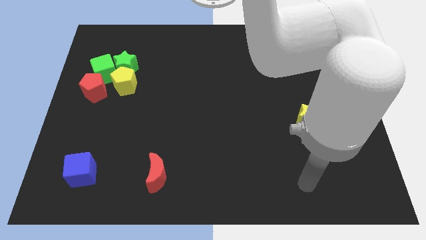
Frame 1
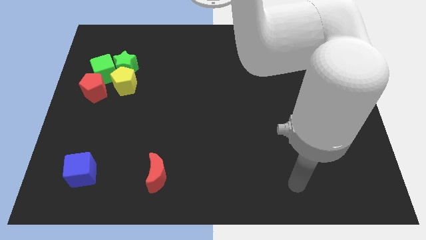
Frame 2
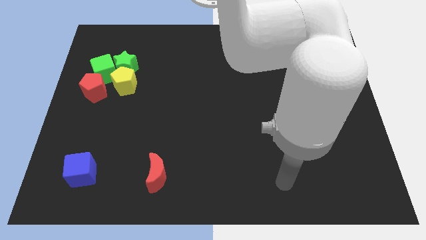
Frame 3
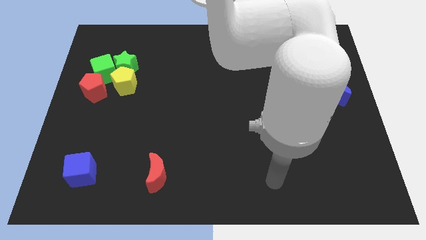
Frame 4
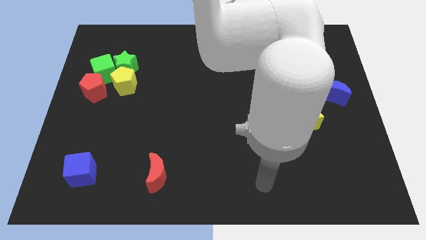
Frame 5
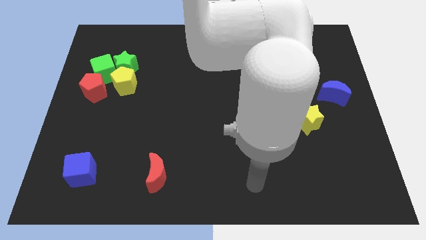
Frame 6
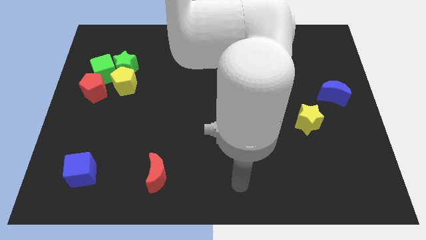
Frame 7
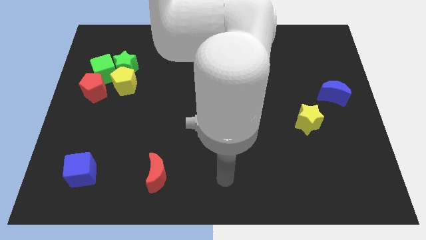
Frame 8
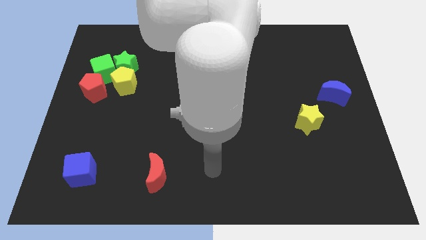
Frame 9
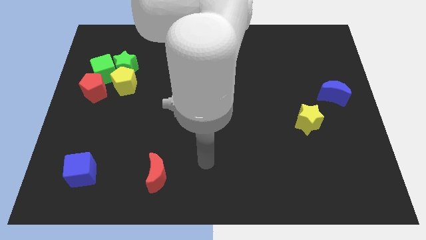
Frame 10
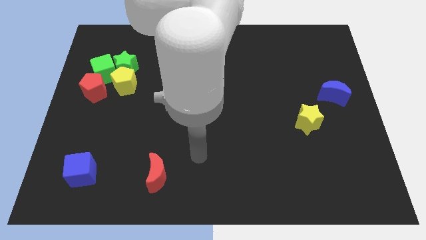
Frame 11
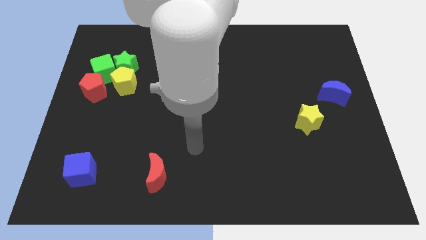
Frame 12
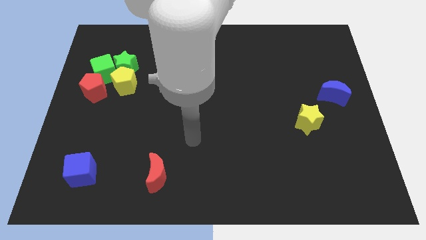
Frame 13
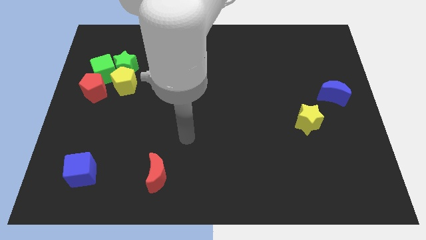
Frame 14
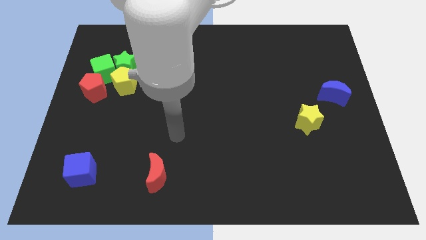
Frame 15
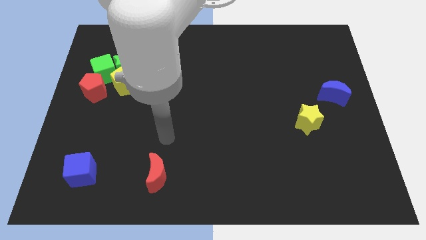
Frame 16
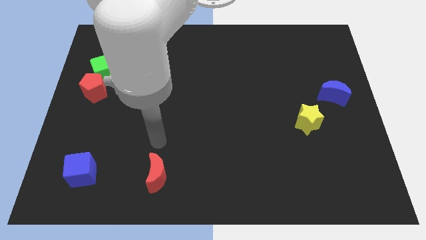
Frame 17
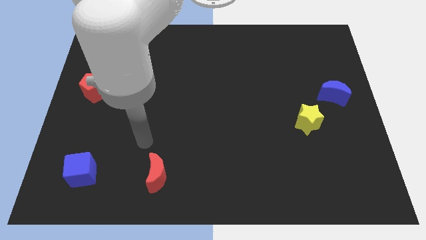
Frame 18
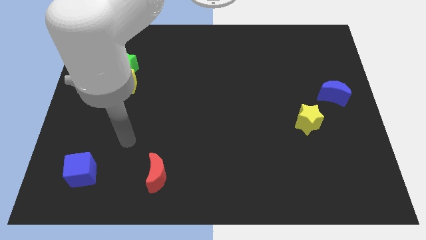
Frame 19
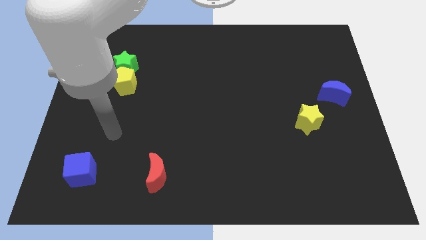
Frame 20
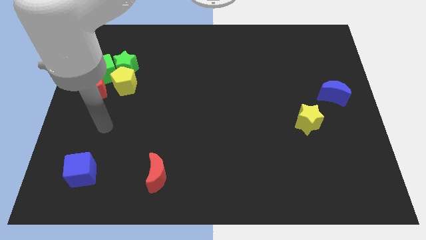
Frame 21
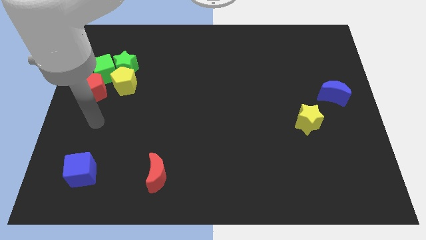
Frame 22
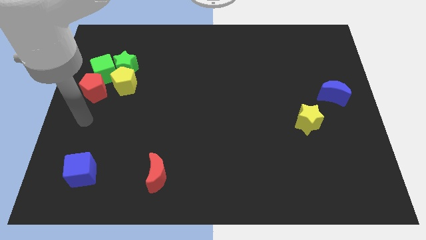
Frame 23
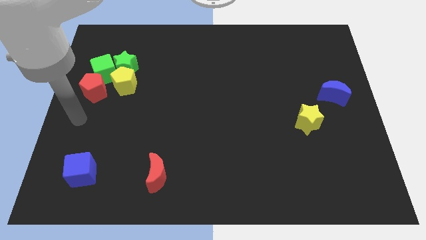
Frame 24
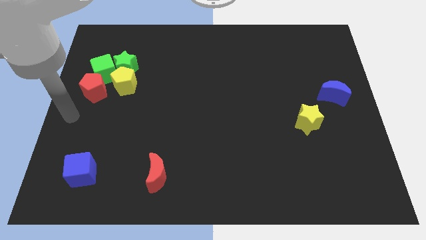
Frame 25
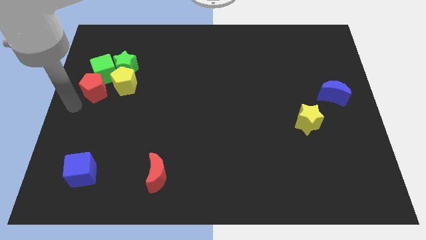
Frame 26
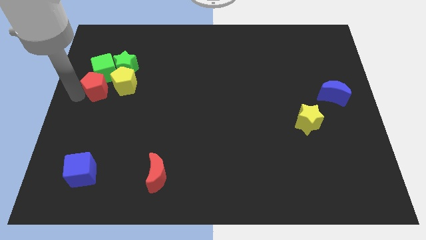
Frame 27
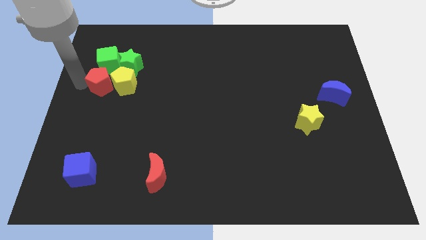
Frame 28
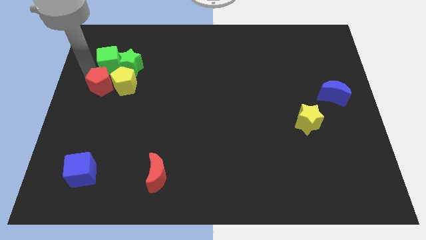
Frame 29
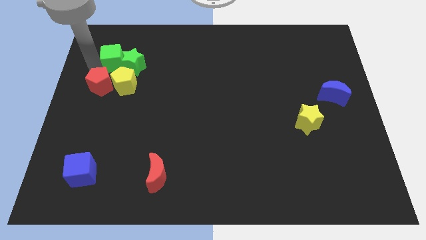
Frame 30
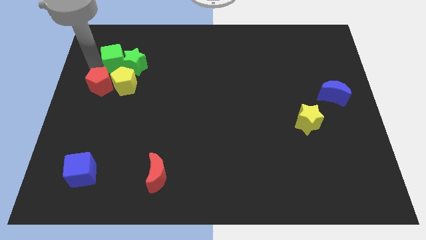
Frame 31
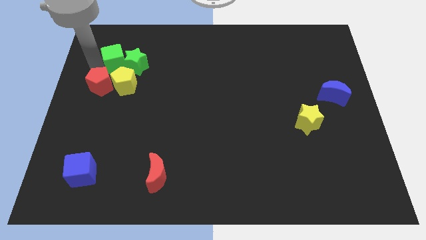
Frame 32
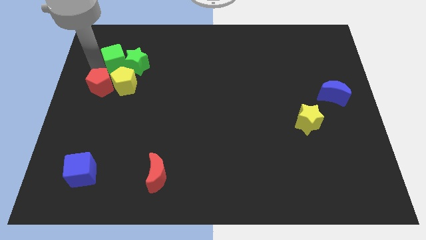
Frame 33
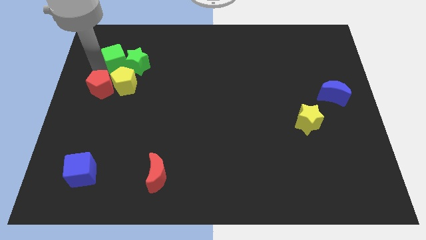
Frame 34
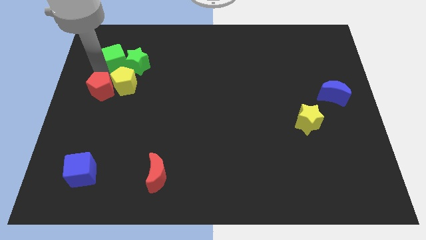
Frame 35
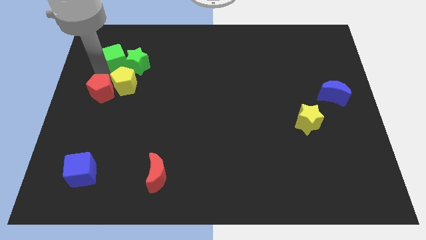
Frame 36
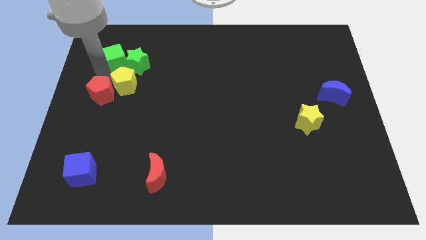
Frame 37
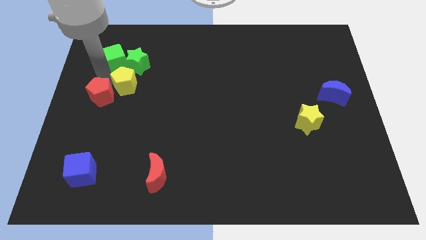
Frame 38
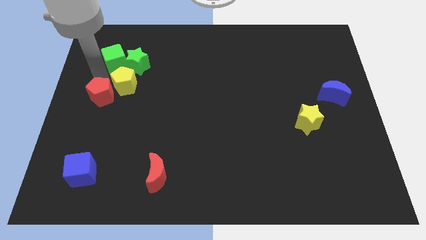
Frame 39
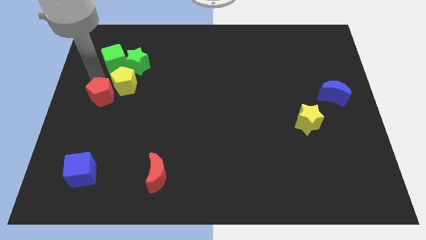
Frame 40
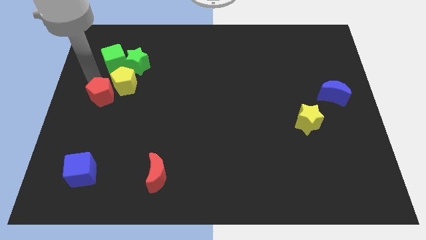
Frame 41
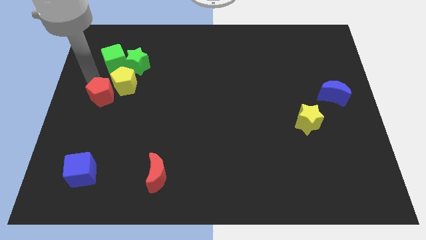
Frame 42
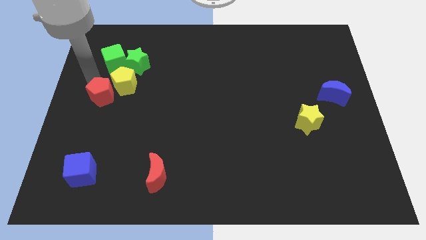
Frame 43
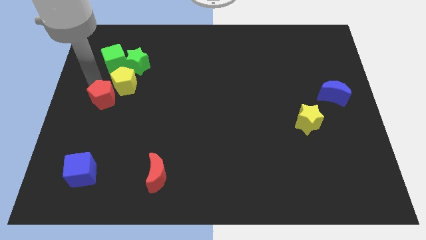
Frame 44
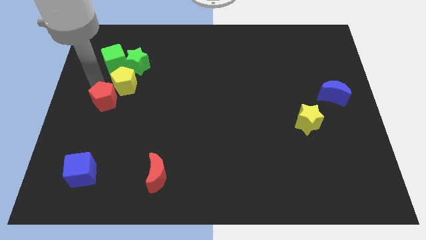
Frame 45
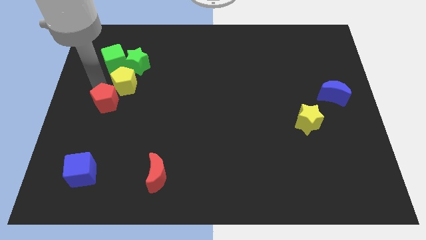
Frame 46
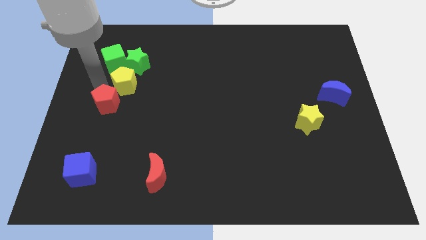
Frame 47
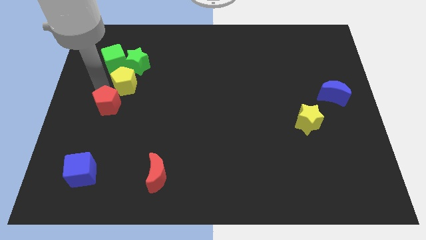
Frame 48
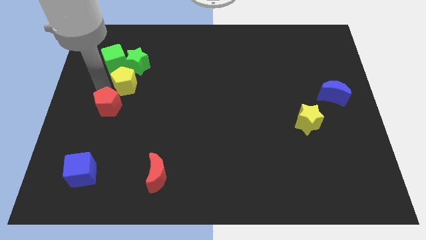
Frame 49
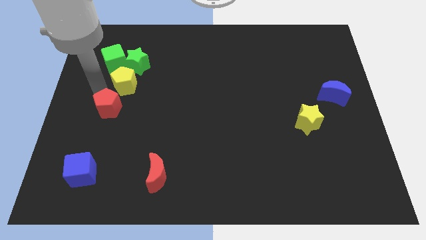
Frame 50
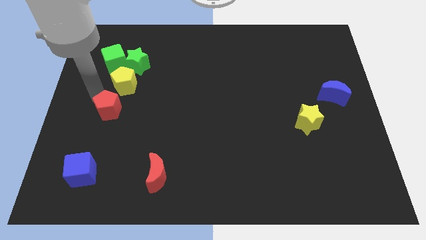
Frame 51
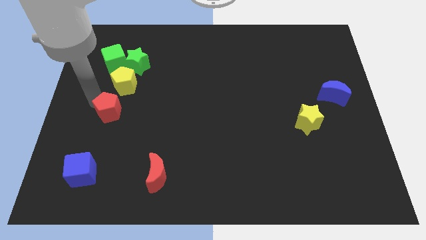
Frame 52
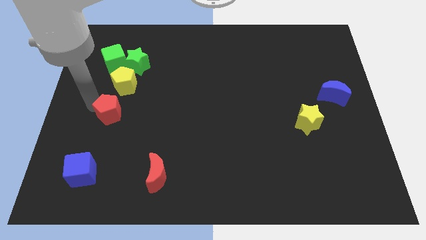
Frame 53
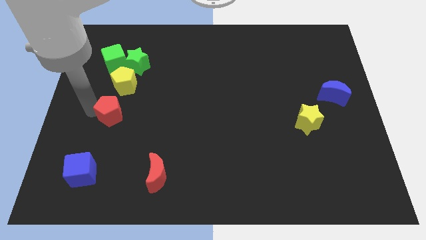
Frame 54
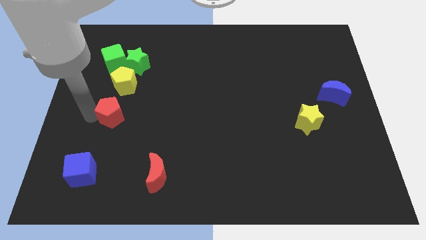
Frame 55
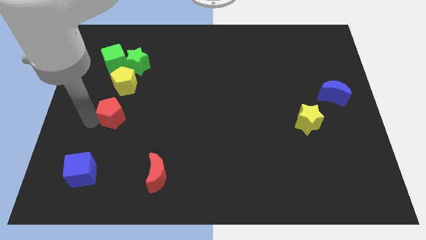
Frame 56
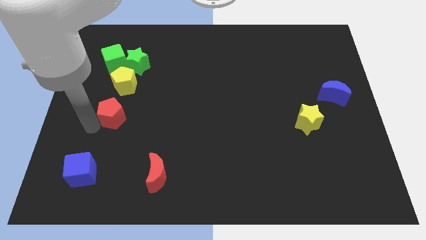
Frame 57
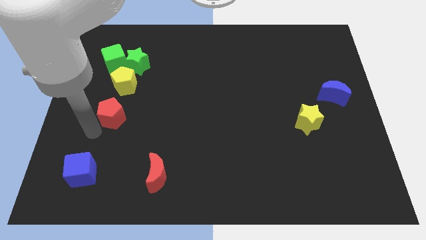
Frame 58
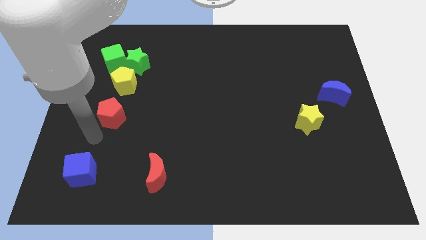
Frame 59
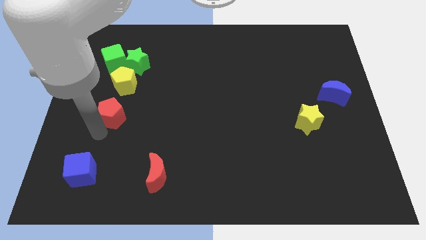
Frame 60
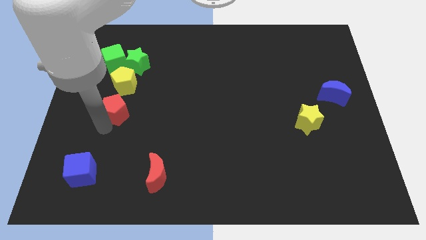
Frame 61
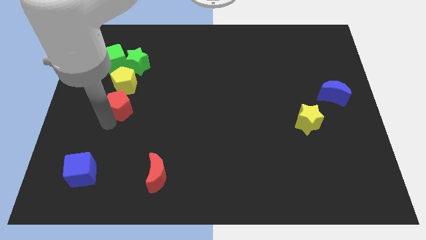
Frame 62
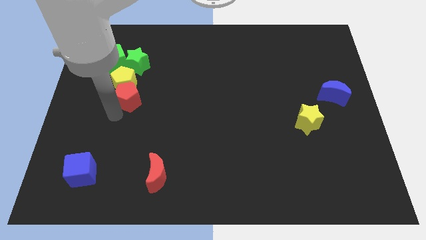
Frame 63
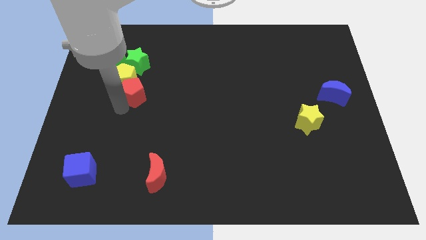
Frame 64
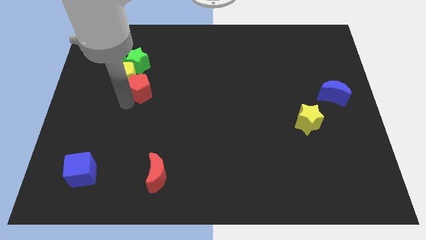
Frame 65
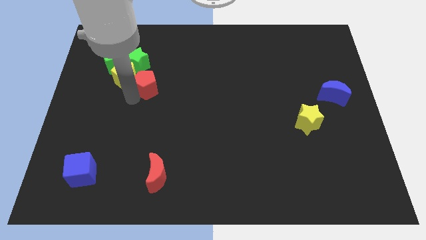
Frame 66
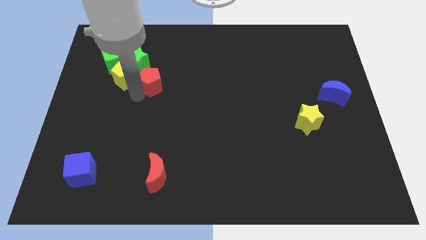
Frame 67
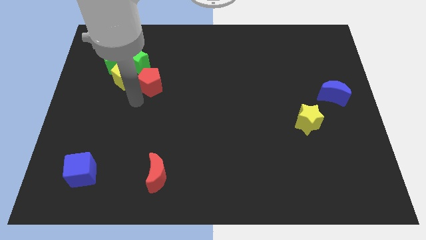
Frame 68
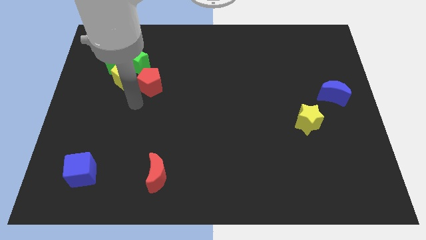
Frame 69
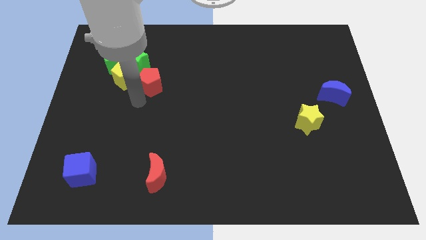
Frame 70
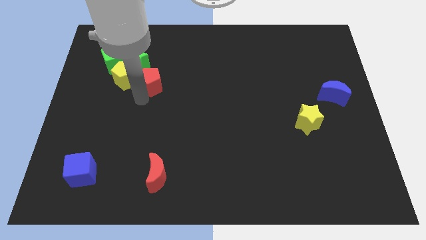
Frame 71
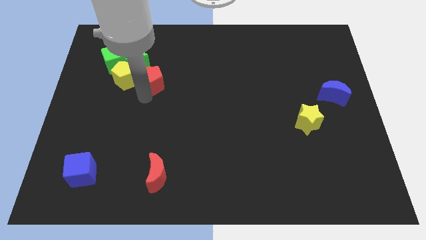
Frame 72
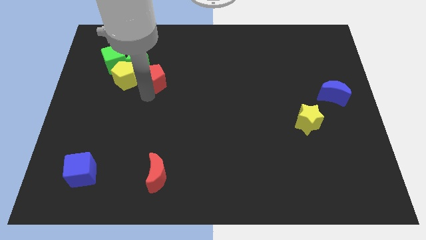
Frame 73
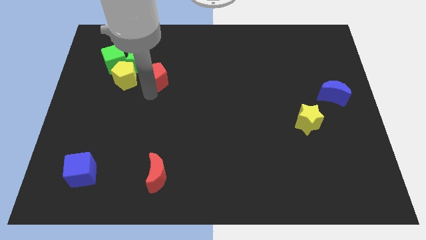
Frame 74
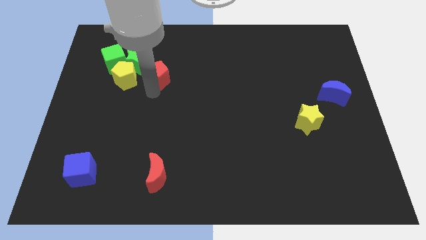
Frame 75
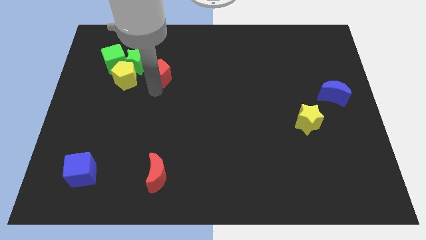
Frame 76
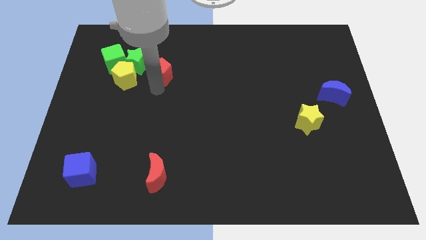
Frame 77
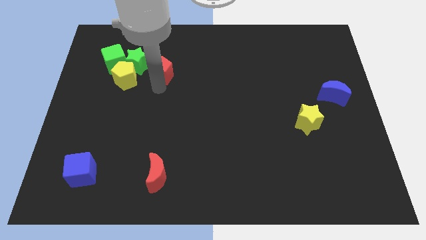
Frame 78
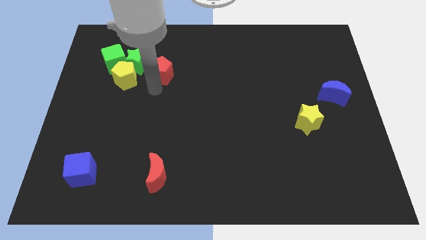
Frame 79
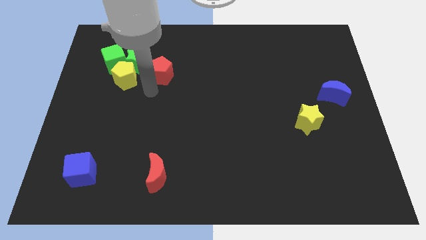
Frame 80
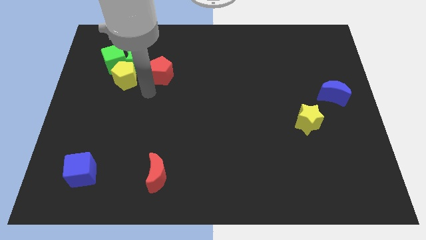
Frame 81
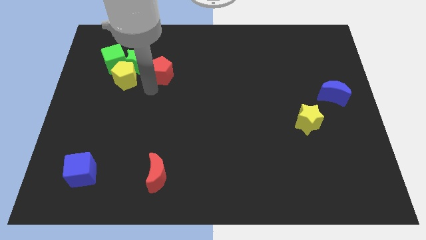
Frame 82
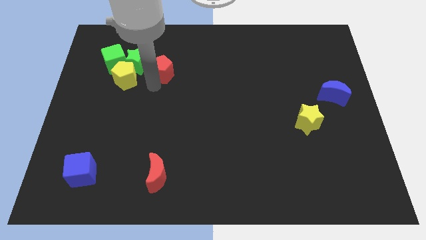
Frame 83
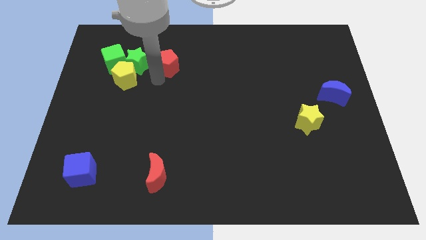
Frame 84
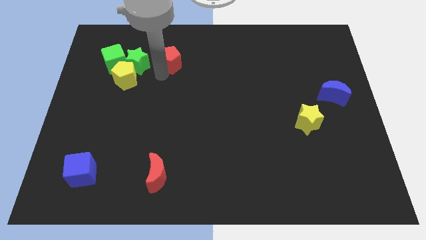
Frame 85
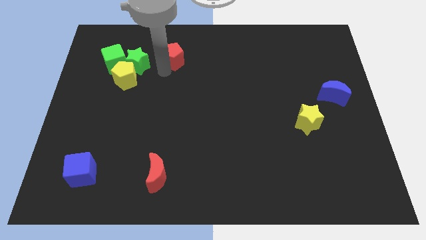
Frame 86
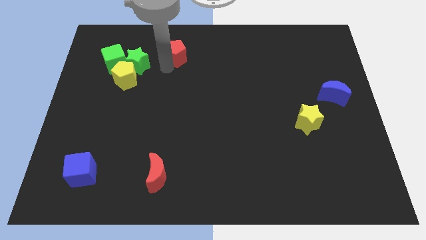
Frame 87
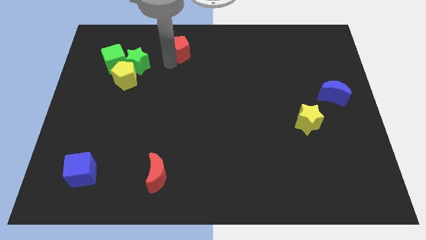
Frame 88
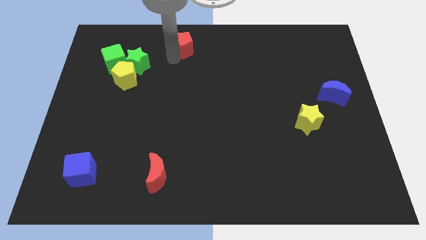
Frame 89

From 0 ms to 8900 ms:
push the red pentagon to the top
